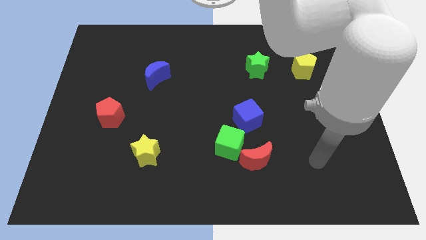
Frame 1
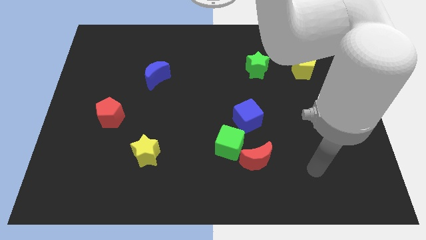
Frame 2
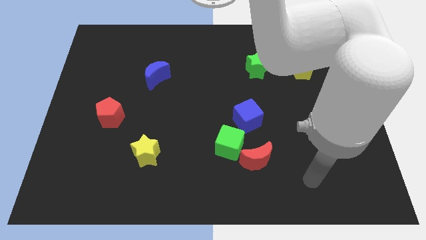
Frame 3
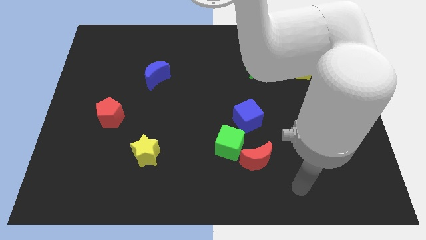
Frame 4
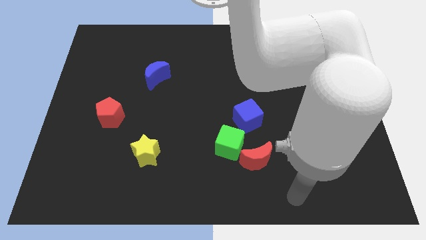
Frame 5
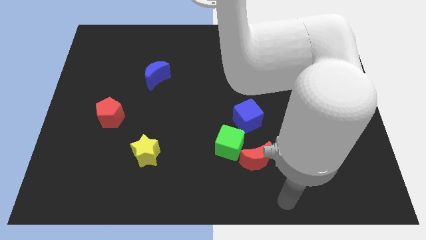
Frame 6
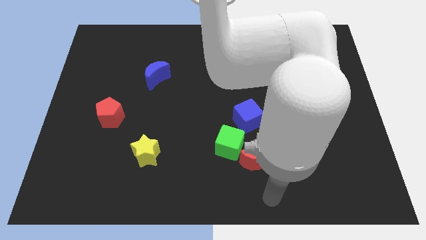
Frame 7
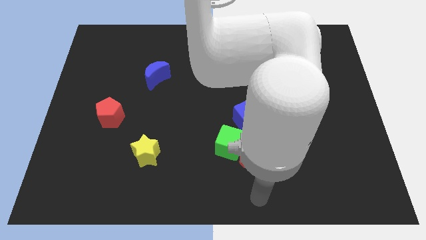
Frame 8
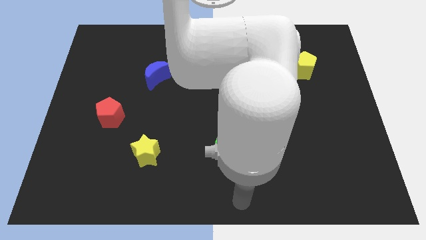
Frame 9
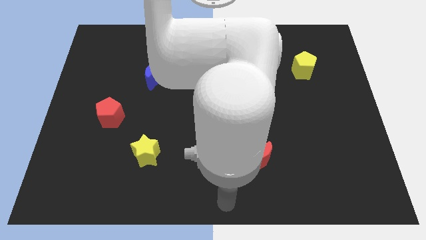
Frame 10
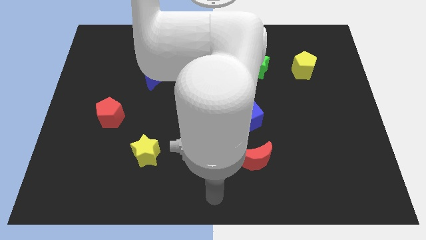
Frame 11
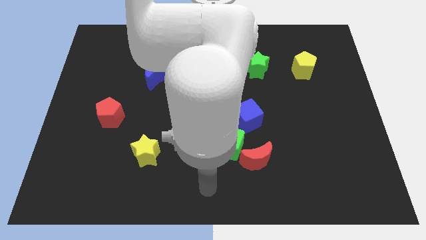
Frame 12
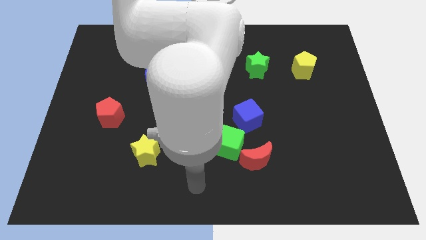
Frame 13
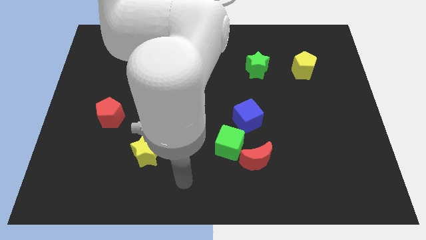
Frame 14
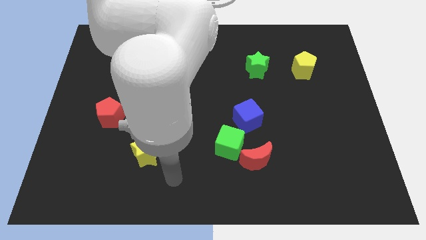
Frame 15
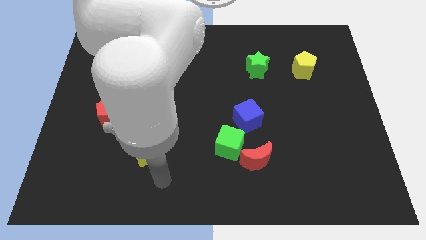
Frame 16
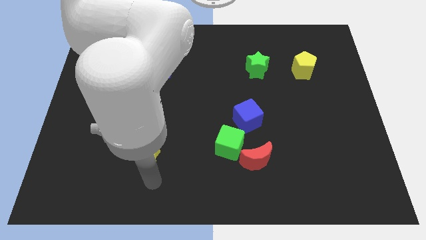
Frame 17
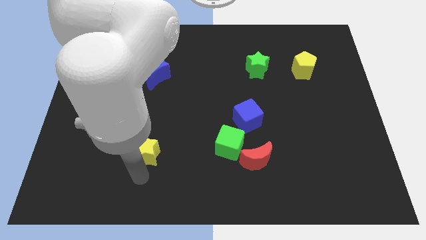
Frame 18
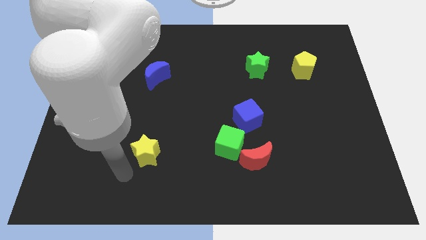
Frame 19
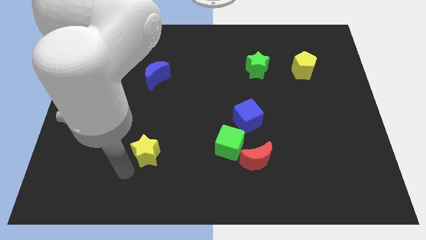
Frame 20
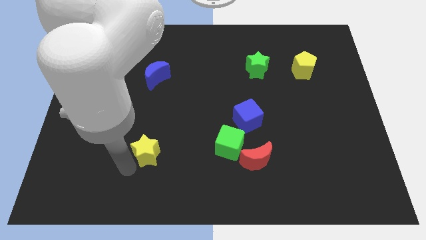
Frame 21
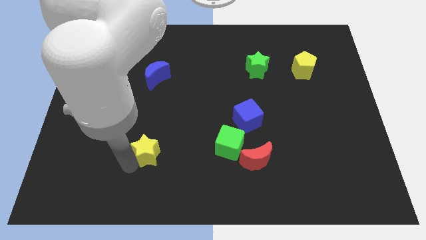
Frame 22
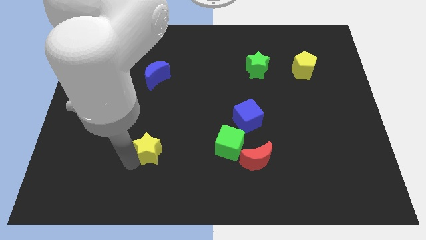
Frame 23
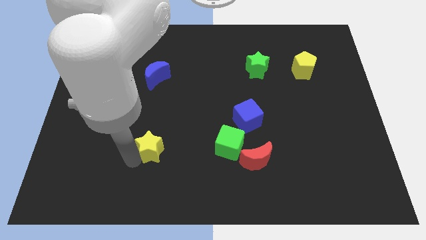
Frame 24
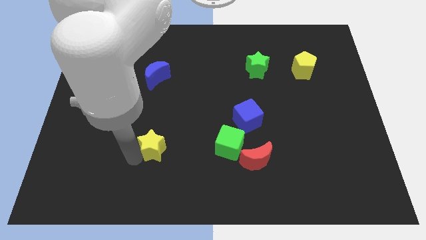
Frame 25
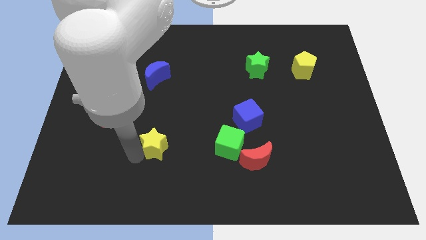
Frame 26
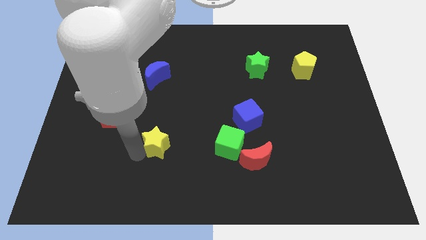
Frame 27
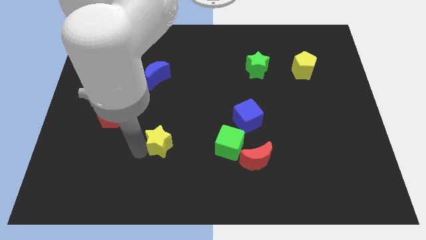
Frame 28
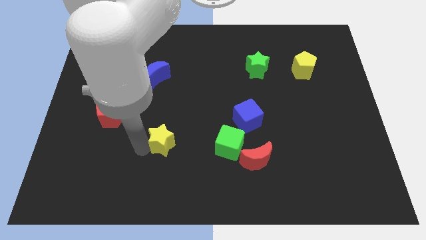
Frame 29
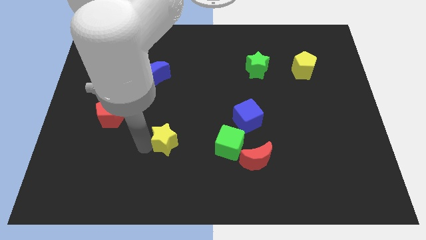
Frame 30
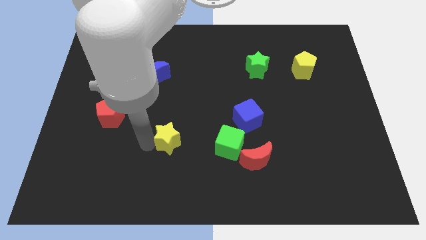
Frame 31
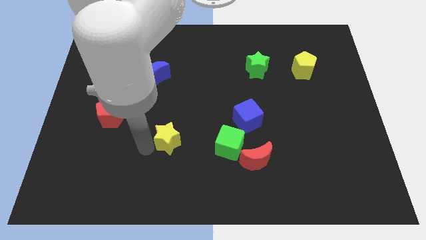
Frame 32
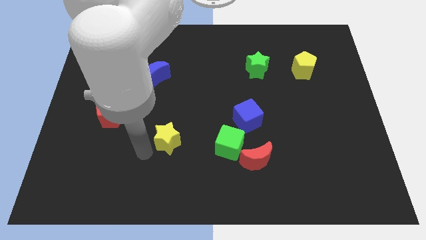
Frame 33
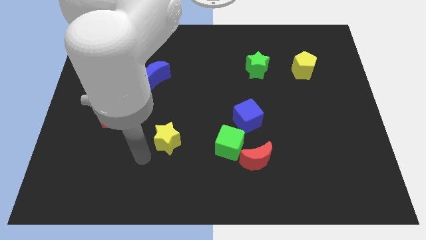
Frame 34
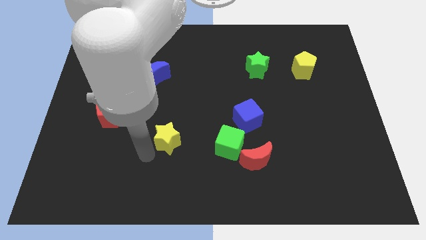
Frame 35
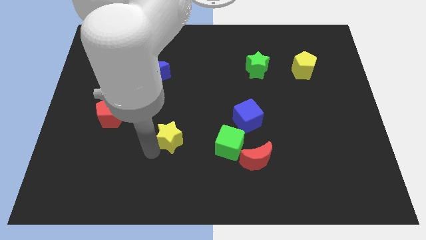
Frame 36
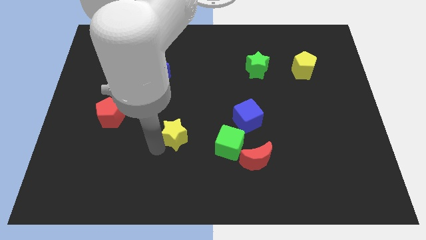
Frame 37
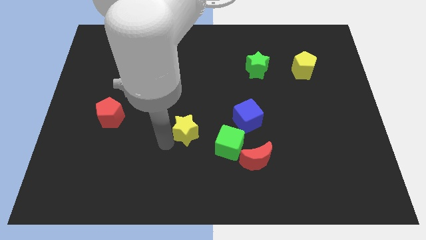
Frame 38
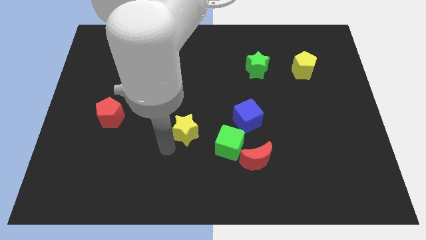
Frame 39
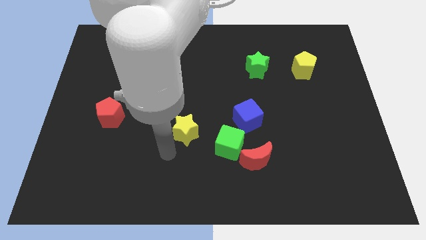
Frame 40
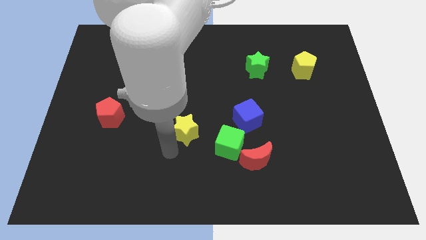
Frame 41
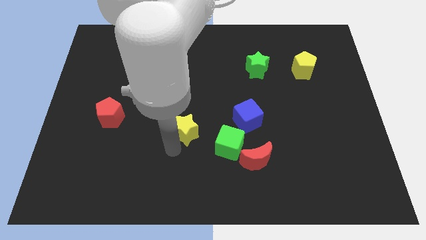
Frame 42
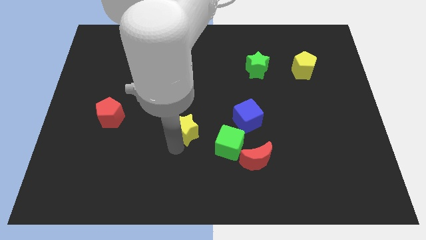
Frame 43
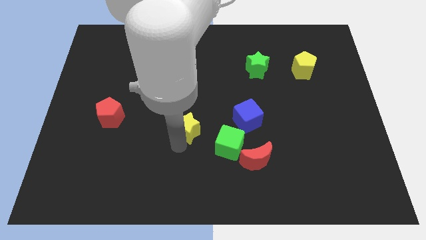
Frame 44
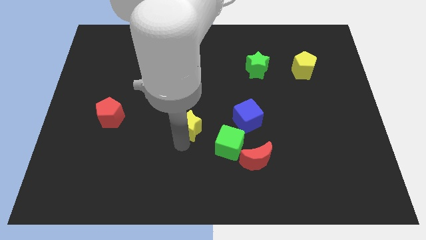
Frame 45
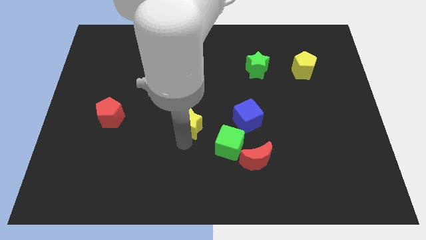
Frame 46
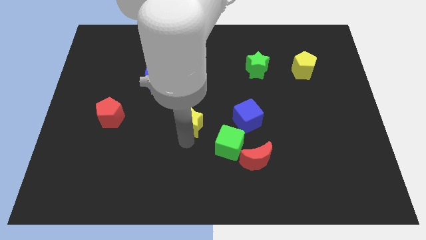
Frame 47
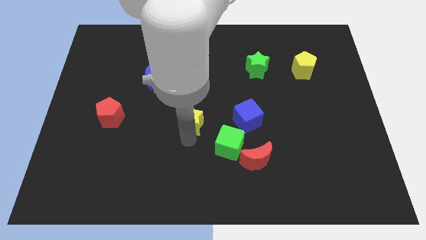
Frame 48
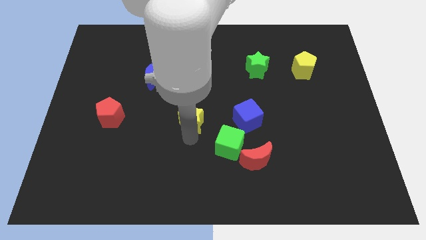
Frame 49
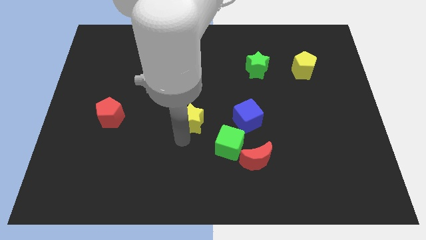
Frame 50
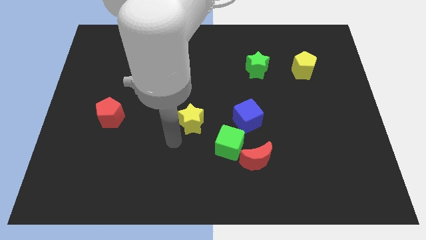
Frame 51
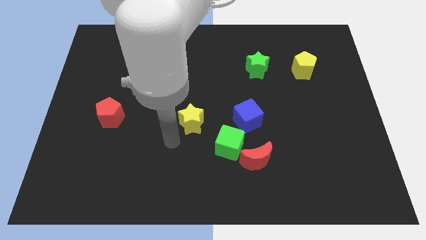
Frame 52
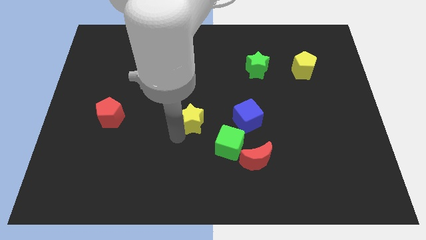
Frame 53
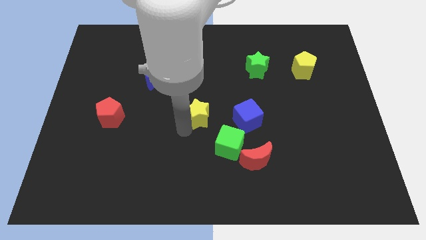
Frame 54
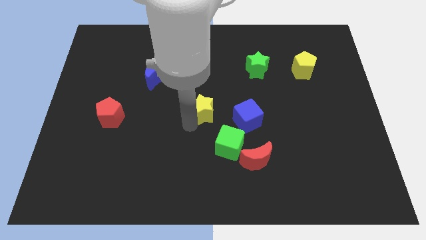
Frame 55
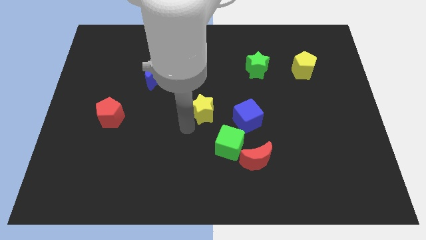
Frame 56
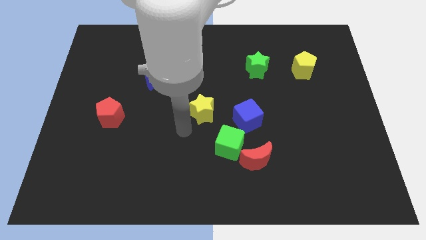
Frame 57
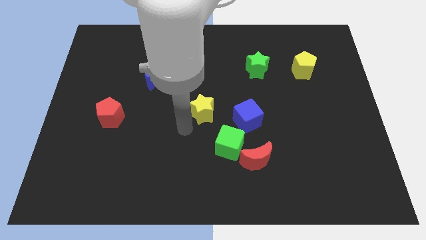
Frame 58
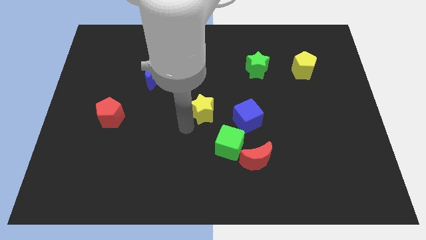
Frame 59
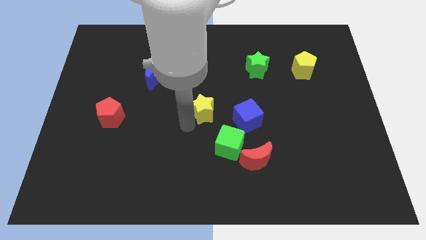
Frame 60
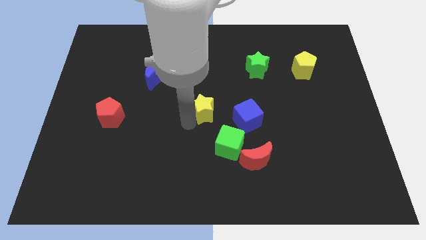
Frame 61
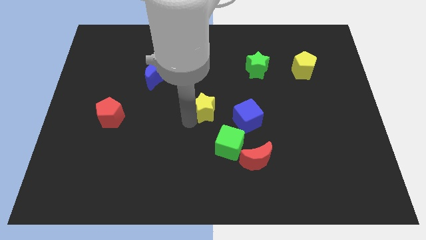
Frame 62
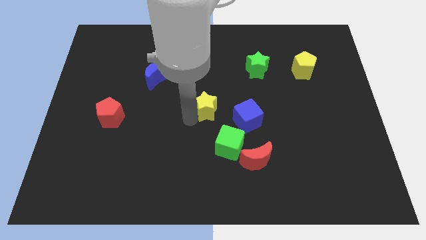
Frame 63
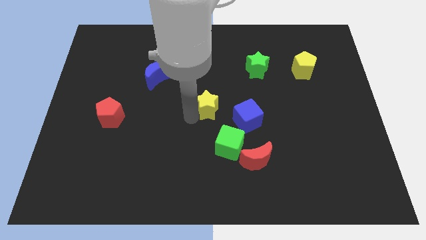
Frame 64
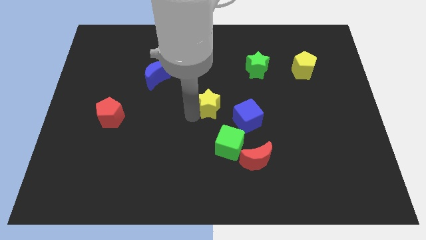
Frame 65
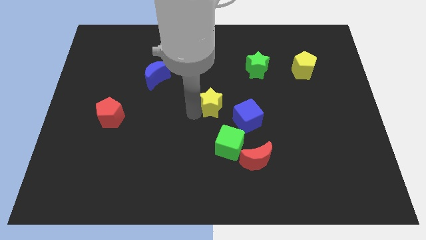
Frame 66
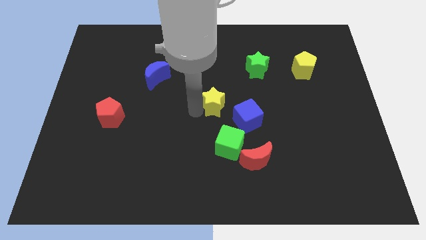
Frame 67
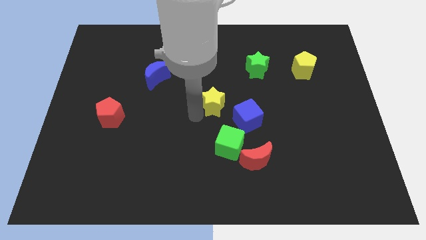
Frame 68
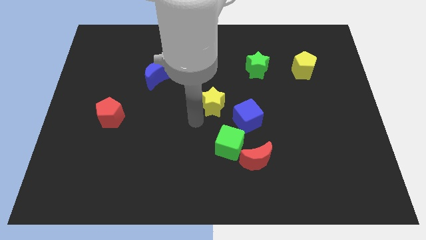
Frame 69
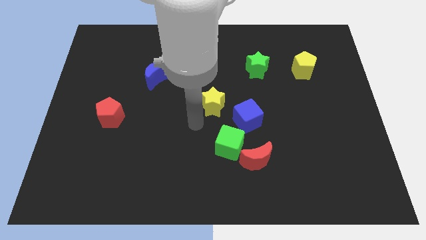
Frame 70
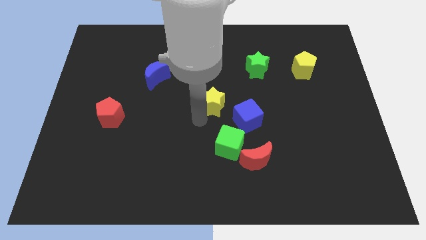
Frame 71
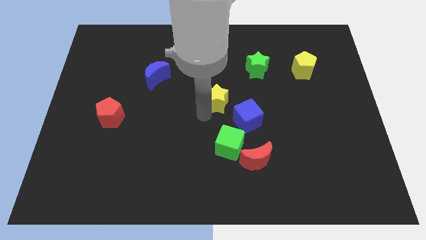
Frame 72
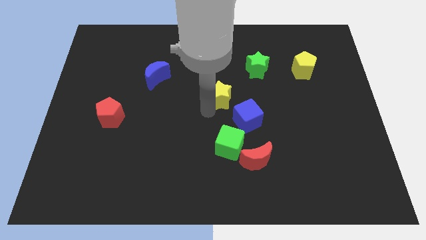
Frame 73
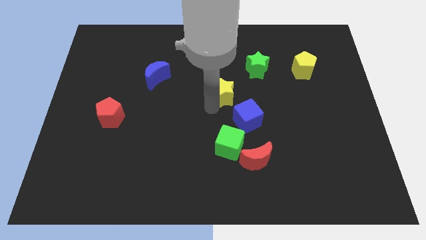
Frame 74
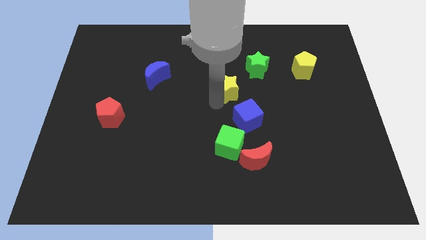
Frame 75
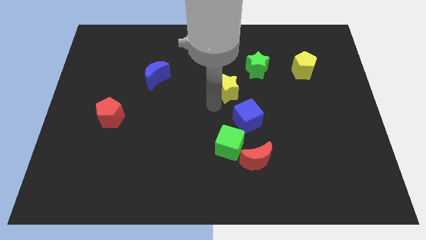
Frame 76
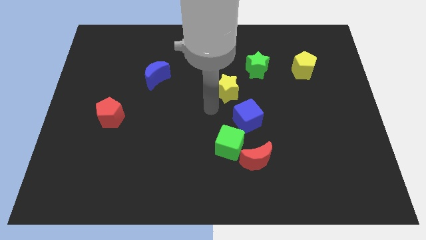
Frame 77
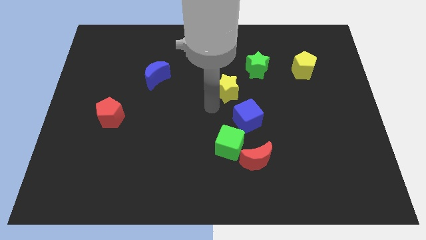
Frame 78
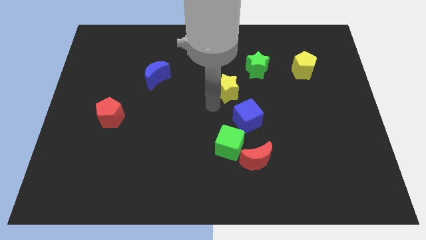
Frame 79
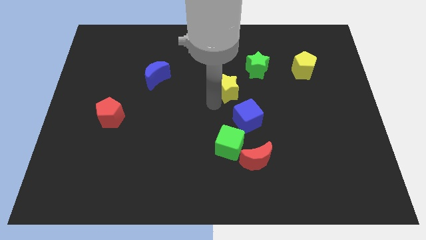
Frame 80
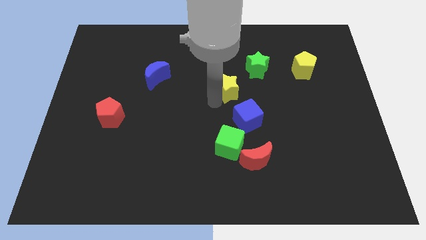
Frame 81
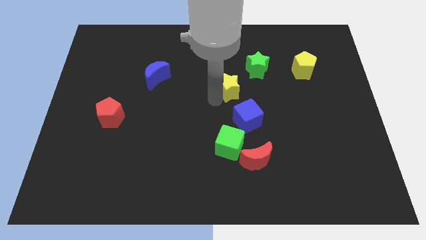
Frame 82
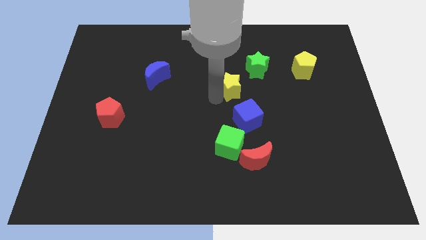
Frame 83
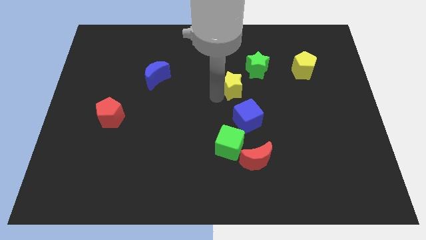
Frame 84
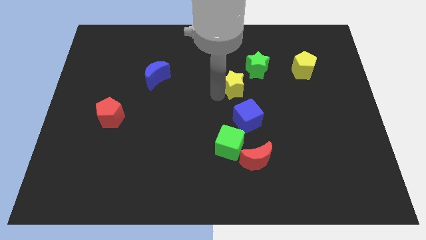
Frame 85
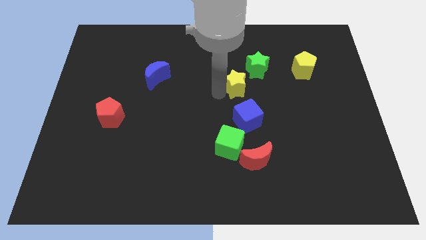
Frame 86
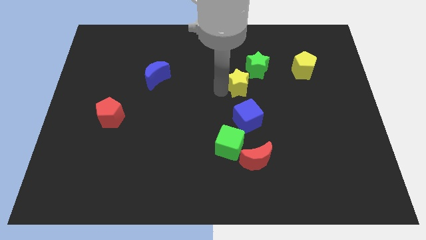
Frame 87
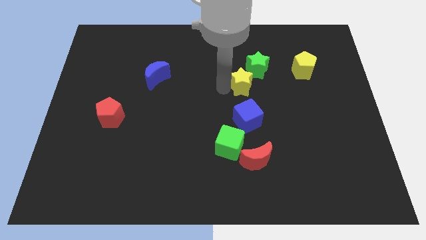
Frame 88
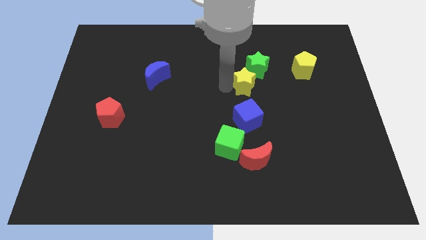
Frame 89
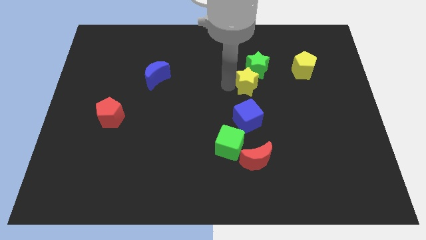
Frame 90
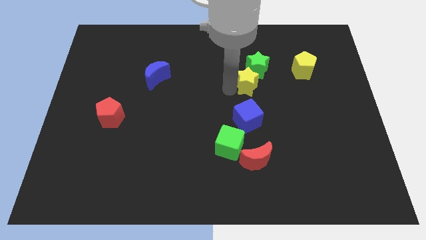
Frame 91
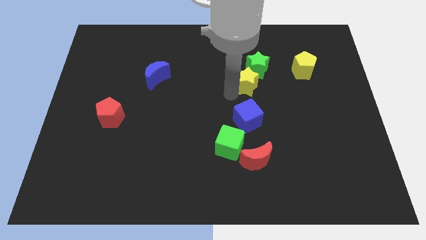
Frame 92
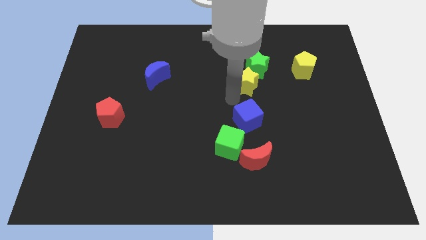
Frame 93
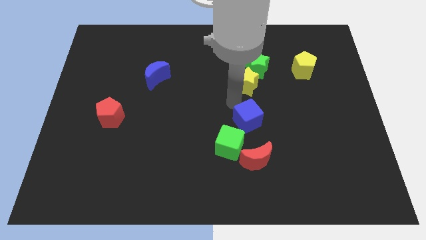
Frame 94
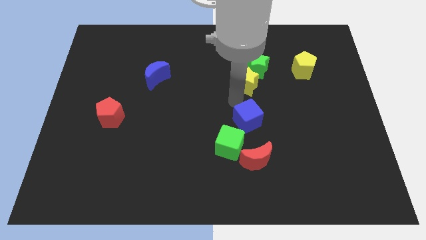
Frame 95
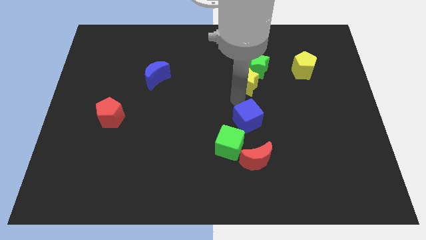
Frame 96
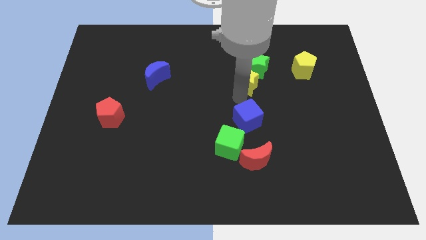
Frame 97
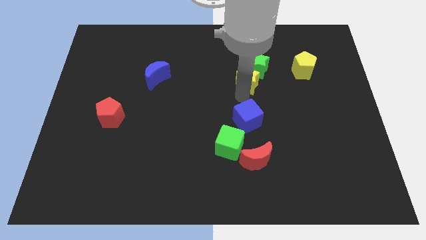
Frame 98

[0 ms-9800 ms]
push the yellow star close to the green star
